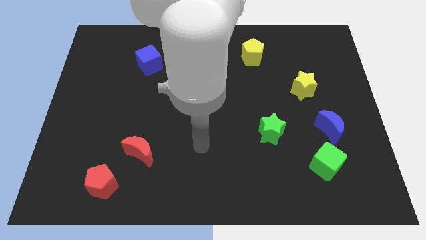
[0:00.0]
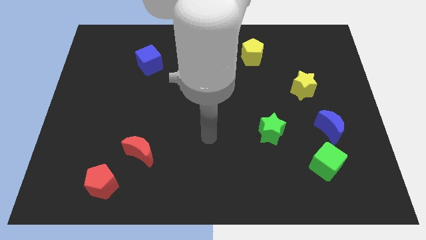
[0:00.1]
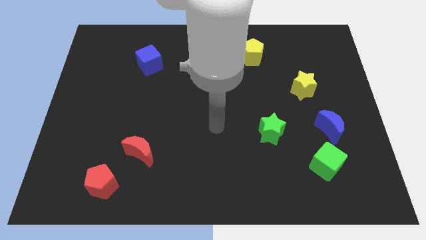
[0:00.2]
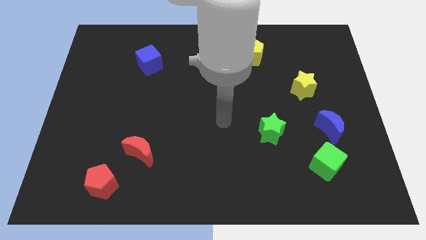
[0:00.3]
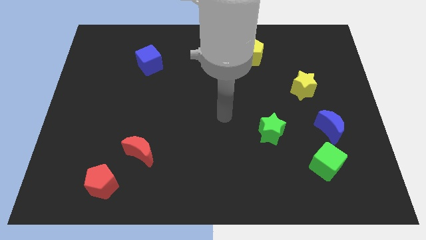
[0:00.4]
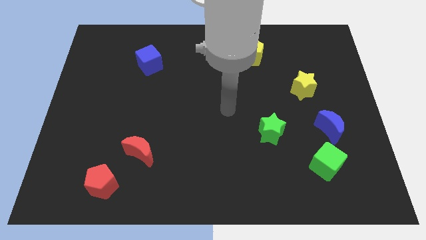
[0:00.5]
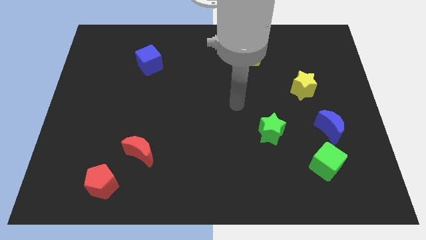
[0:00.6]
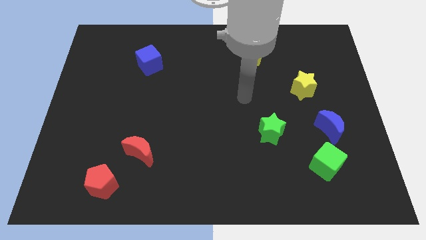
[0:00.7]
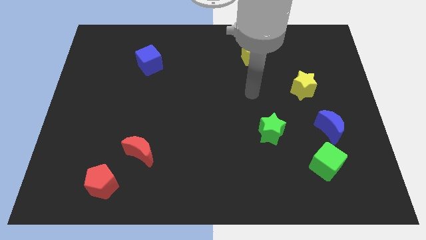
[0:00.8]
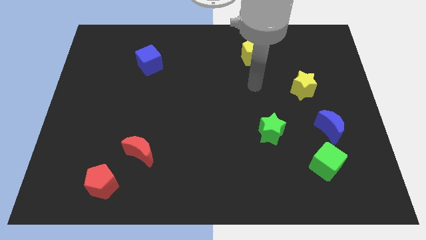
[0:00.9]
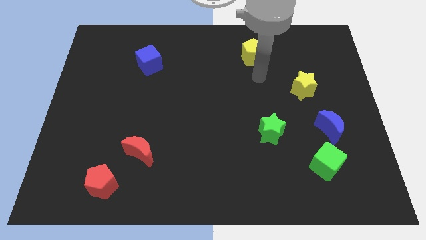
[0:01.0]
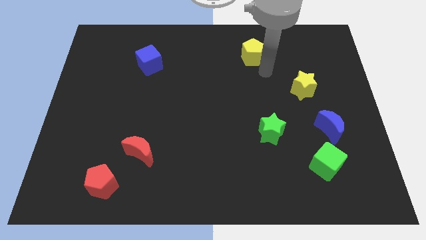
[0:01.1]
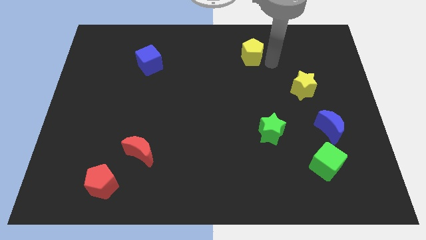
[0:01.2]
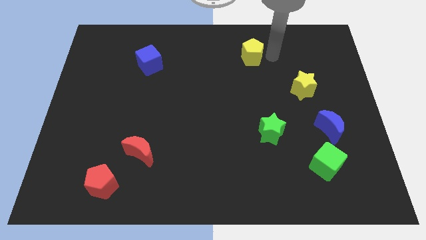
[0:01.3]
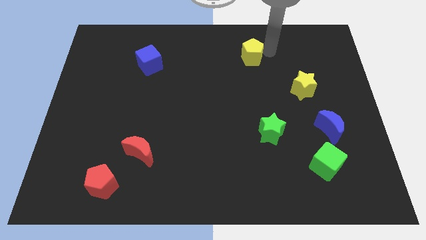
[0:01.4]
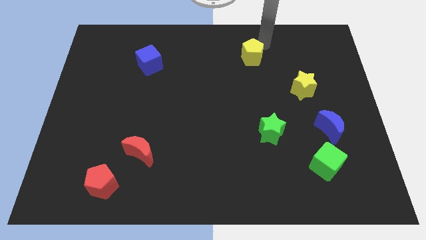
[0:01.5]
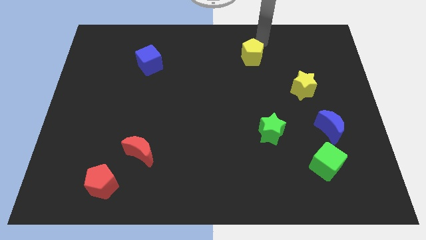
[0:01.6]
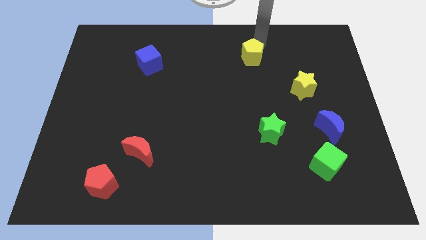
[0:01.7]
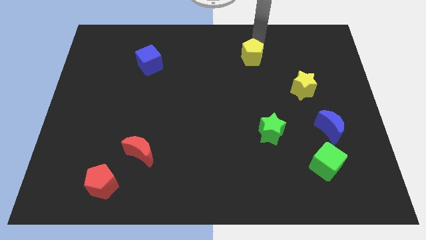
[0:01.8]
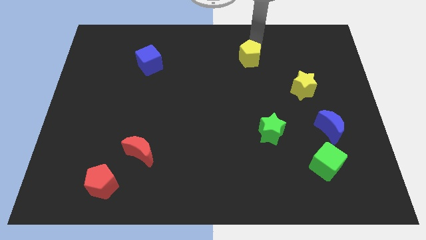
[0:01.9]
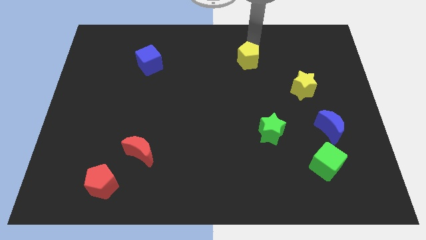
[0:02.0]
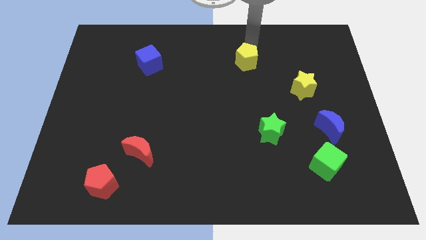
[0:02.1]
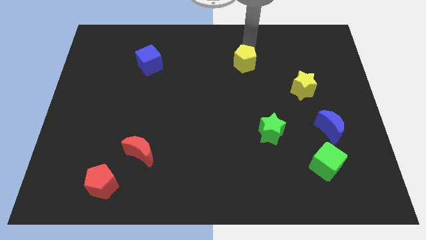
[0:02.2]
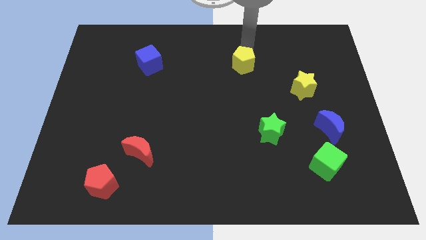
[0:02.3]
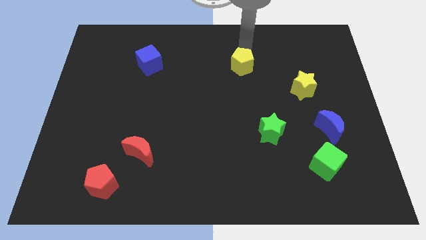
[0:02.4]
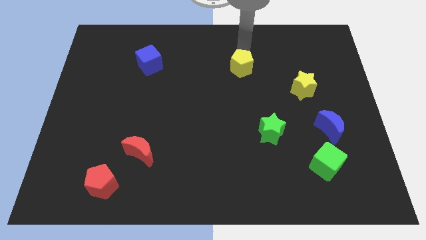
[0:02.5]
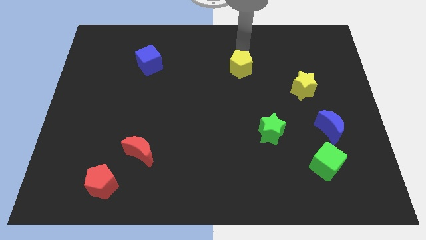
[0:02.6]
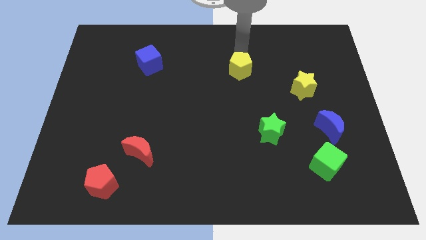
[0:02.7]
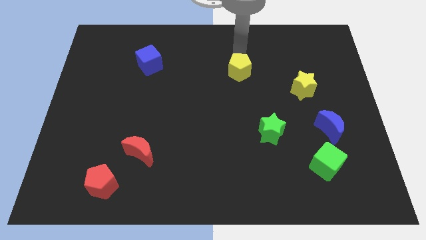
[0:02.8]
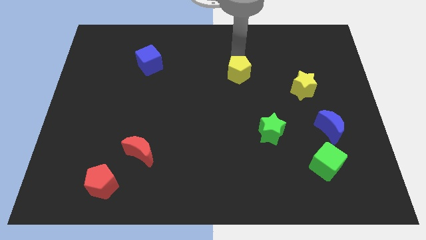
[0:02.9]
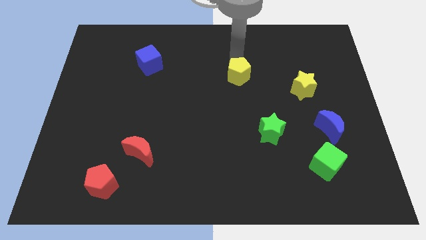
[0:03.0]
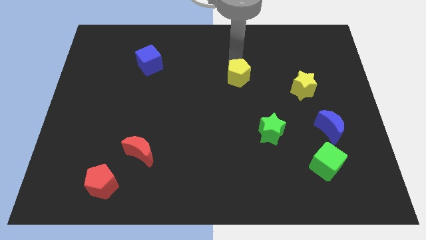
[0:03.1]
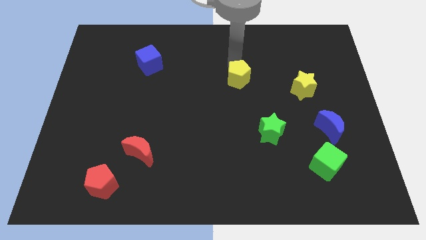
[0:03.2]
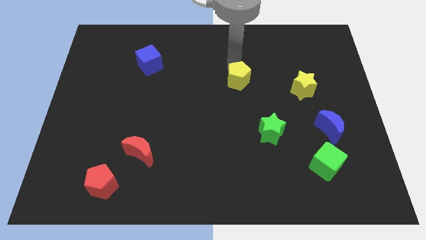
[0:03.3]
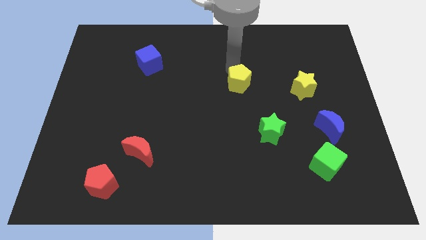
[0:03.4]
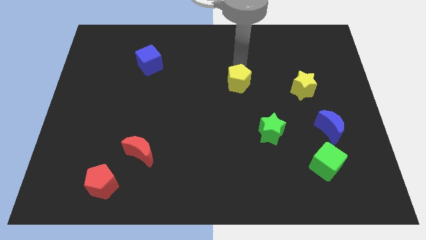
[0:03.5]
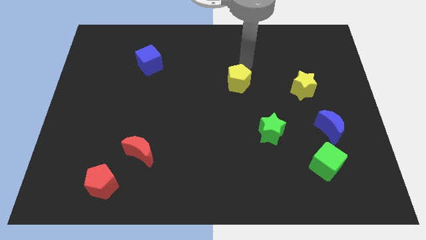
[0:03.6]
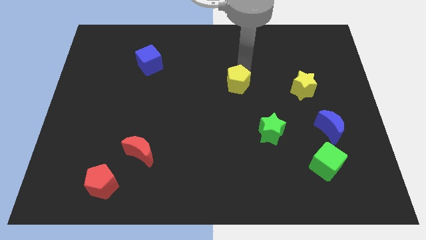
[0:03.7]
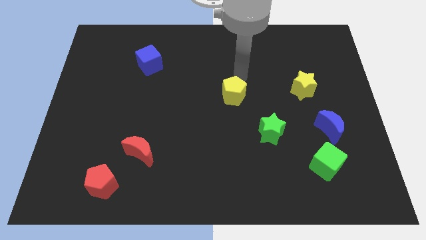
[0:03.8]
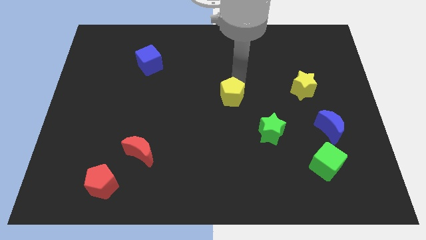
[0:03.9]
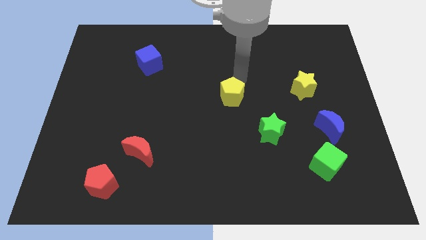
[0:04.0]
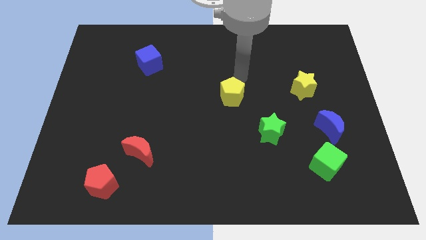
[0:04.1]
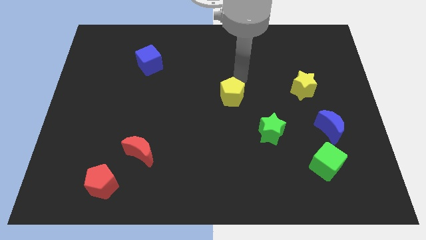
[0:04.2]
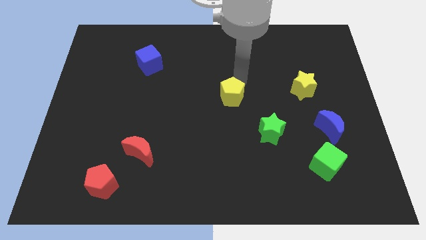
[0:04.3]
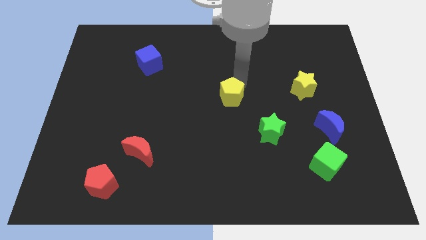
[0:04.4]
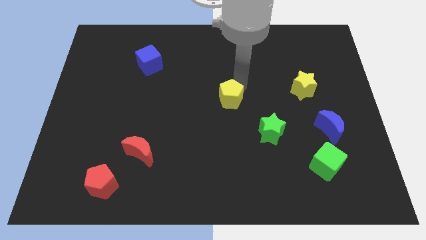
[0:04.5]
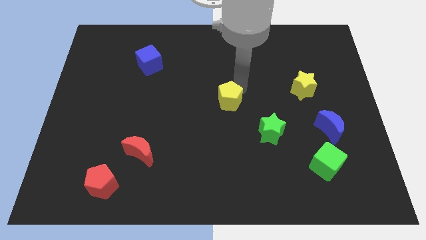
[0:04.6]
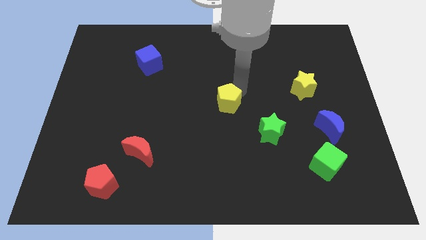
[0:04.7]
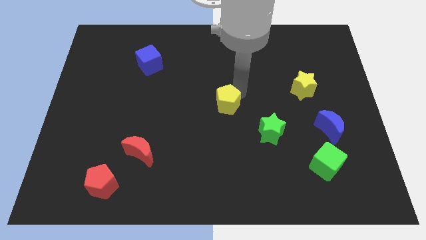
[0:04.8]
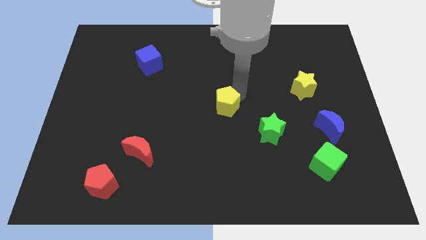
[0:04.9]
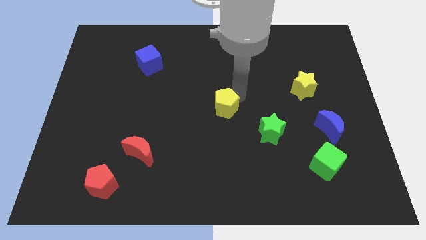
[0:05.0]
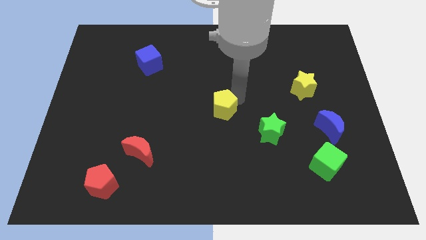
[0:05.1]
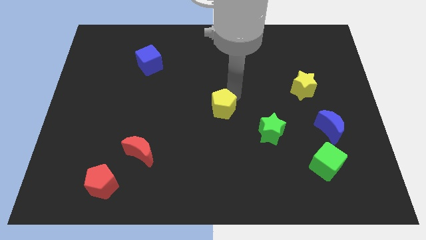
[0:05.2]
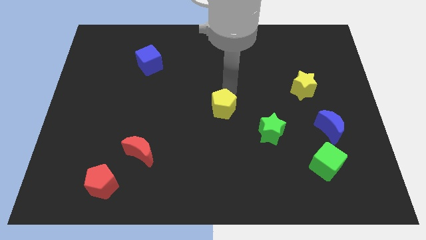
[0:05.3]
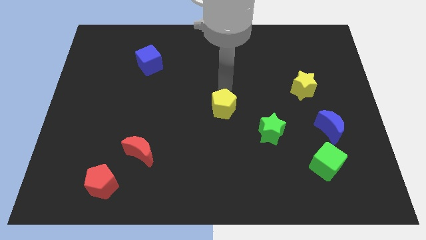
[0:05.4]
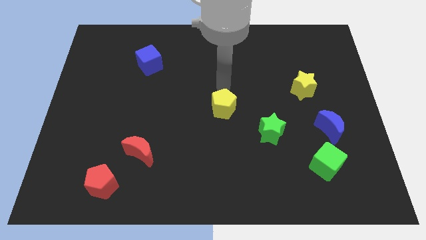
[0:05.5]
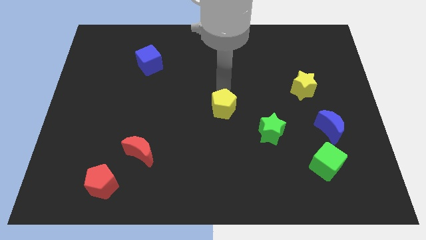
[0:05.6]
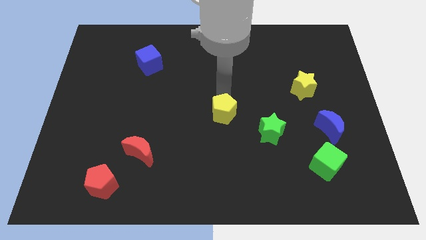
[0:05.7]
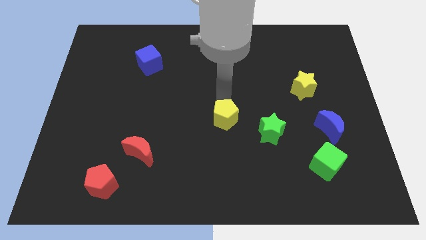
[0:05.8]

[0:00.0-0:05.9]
push the yellow pentagon to the left of the green star

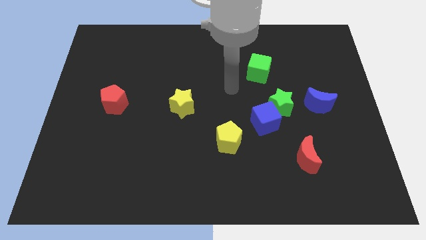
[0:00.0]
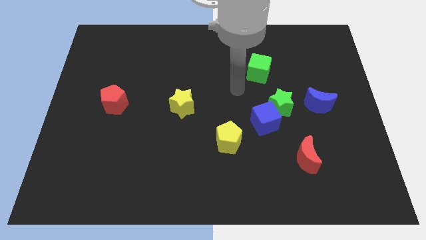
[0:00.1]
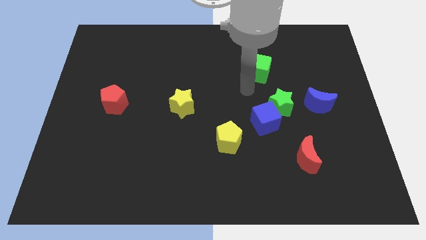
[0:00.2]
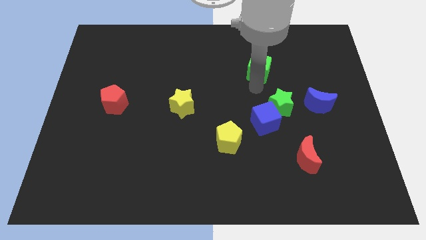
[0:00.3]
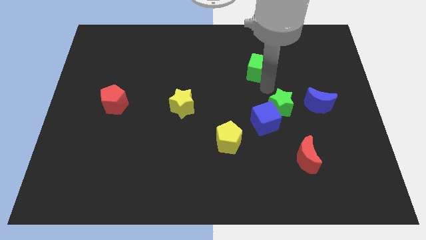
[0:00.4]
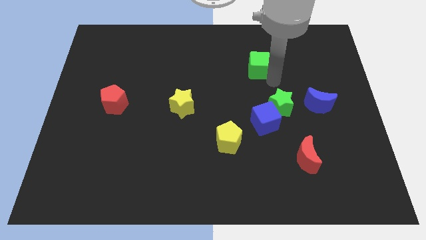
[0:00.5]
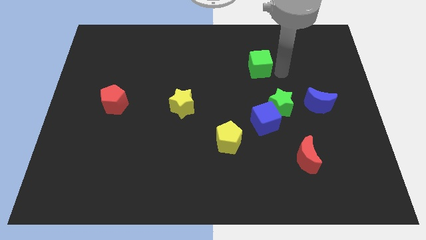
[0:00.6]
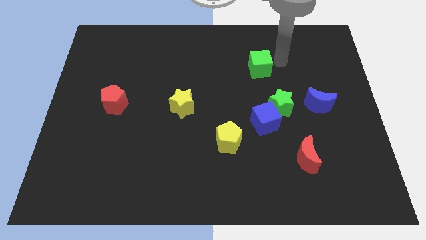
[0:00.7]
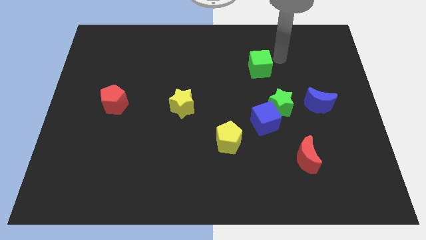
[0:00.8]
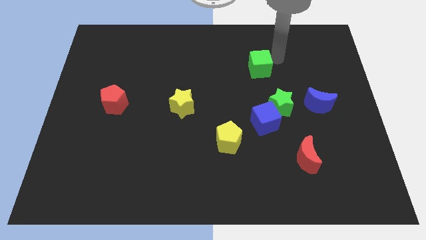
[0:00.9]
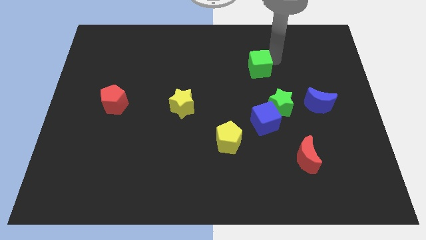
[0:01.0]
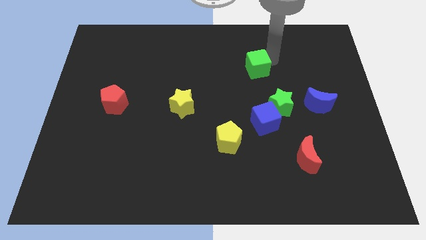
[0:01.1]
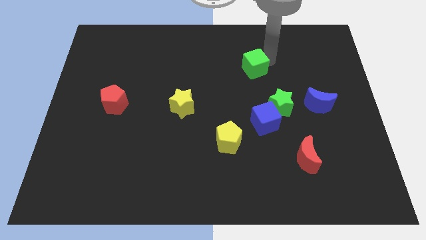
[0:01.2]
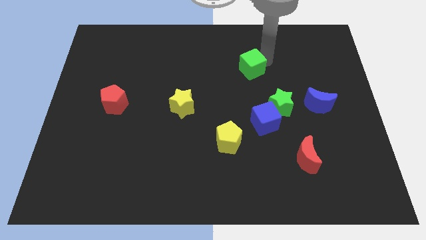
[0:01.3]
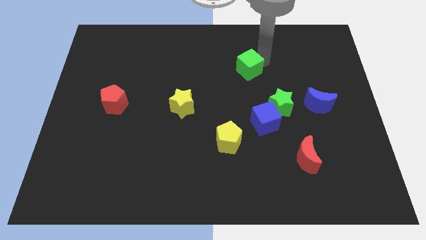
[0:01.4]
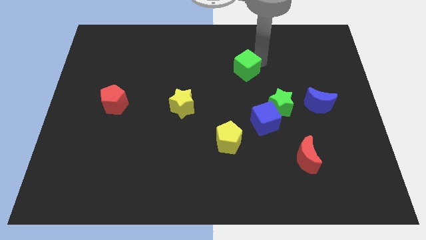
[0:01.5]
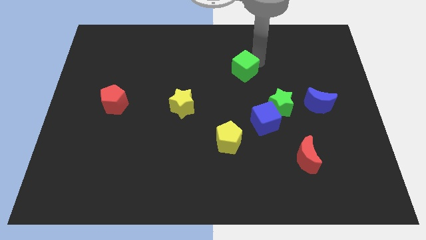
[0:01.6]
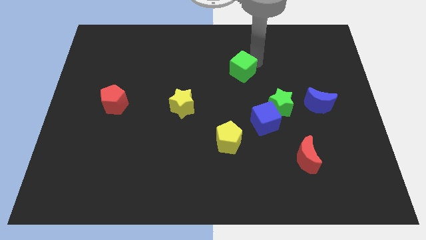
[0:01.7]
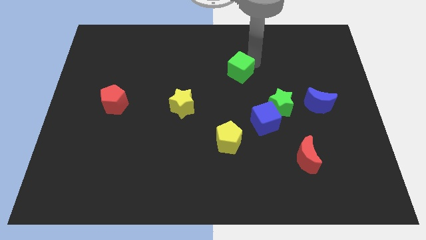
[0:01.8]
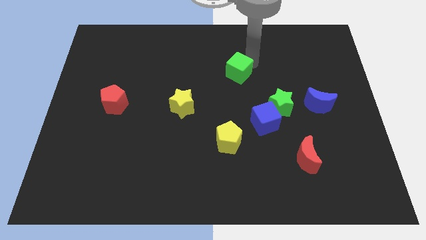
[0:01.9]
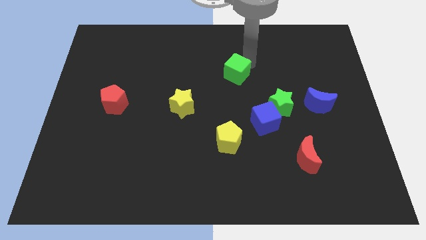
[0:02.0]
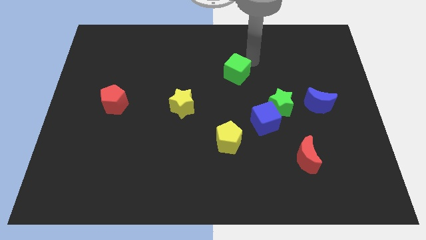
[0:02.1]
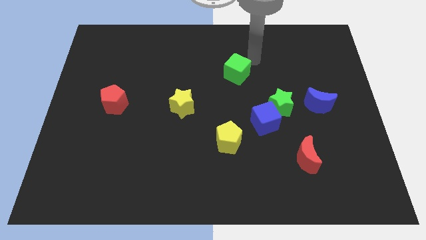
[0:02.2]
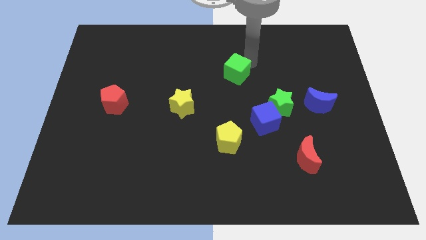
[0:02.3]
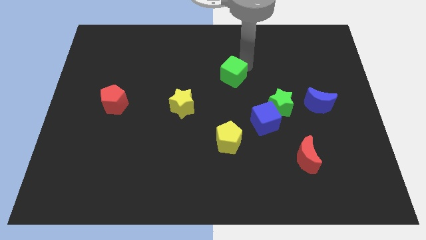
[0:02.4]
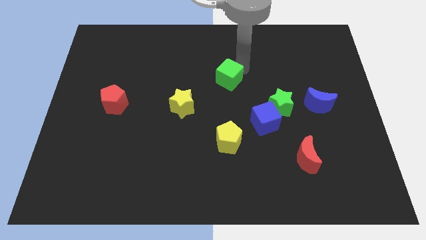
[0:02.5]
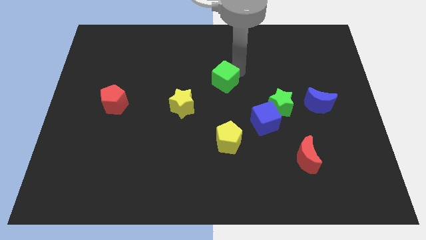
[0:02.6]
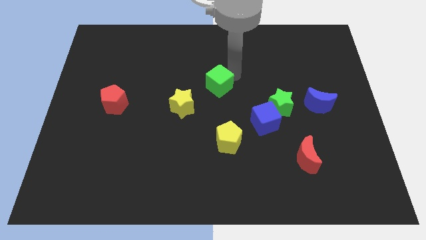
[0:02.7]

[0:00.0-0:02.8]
move the green cube to the top right of the yellow star
